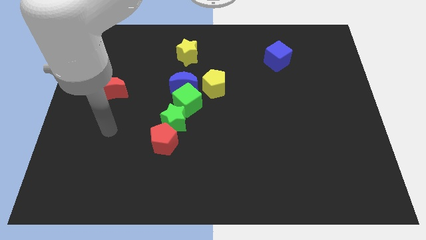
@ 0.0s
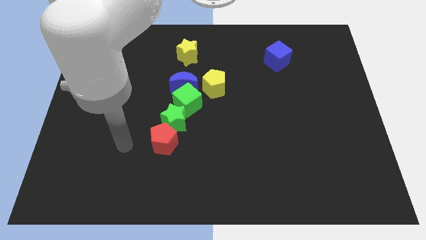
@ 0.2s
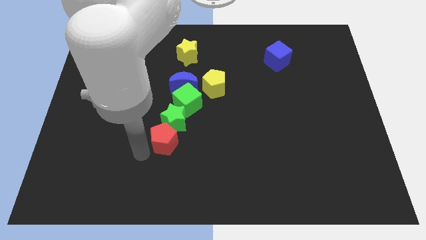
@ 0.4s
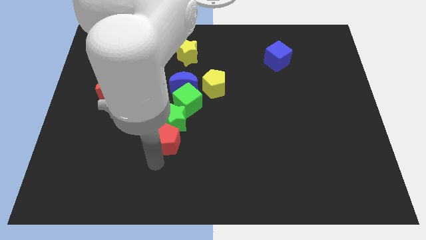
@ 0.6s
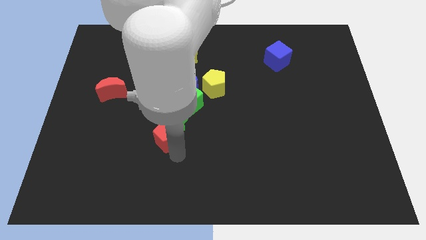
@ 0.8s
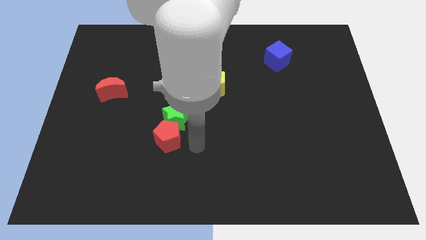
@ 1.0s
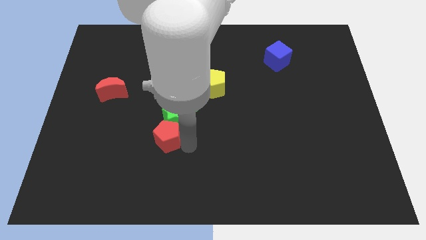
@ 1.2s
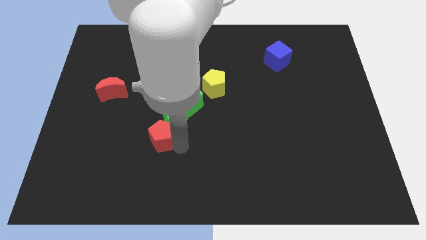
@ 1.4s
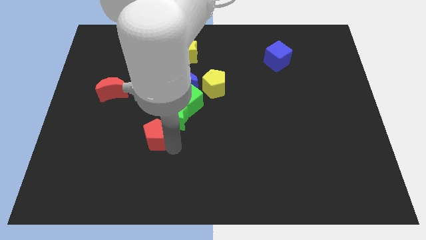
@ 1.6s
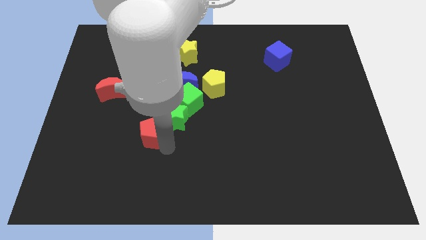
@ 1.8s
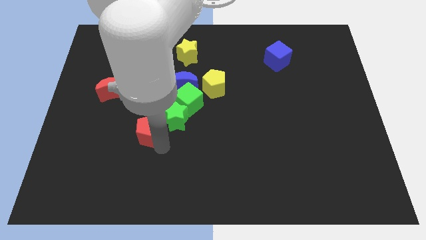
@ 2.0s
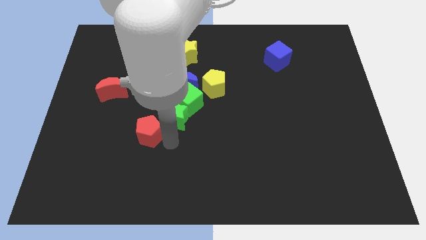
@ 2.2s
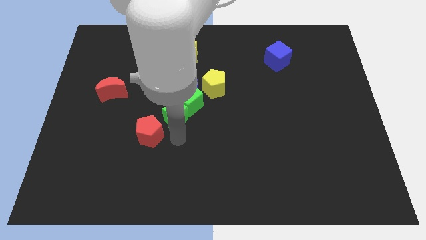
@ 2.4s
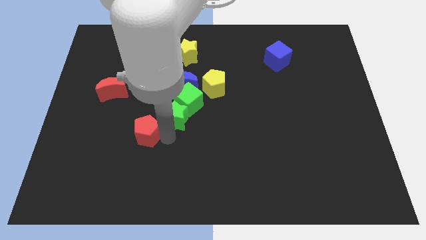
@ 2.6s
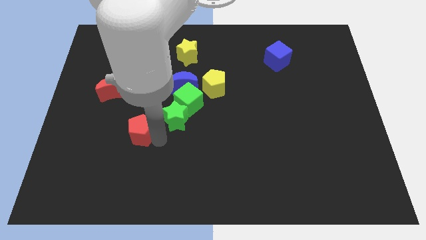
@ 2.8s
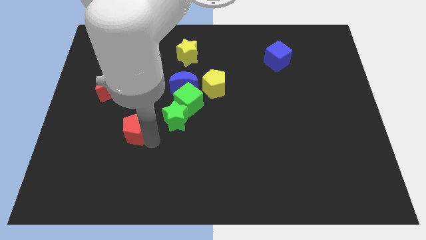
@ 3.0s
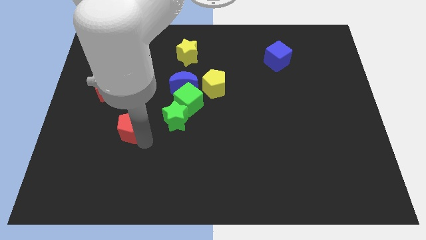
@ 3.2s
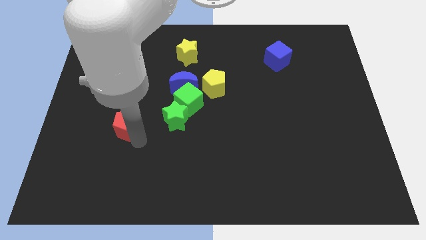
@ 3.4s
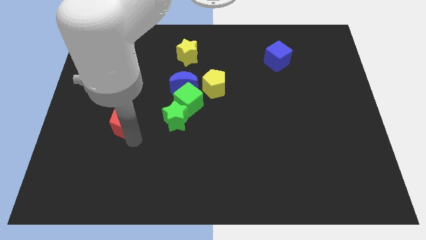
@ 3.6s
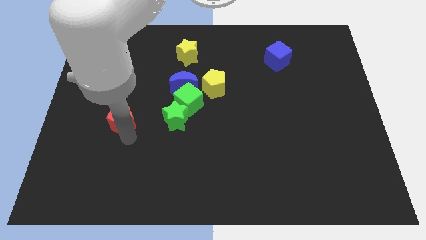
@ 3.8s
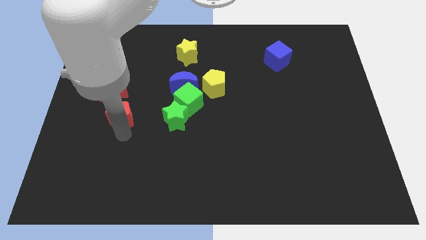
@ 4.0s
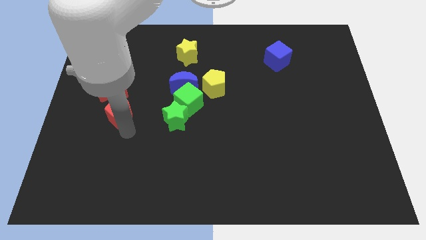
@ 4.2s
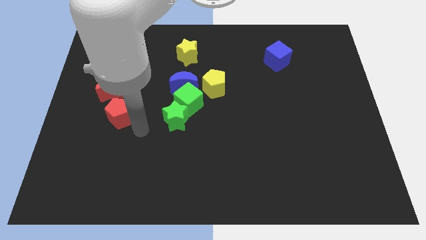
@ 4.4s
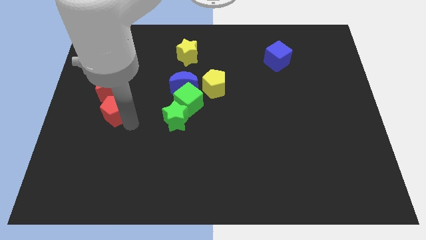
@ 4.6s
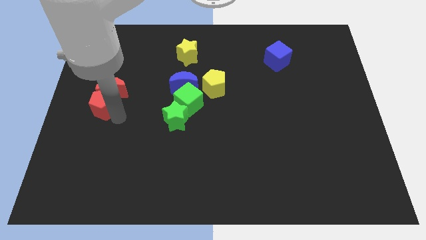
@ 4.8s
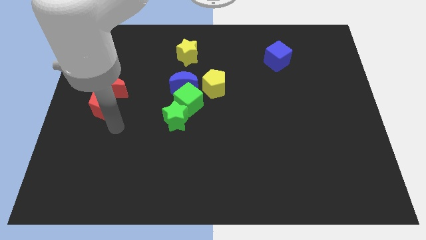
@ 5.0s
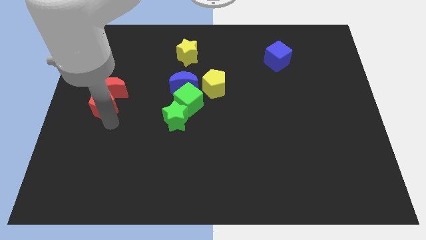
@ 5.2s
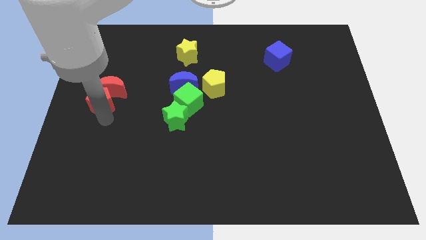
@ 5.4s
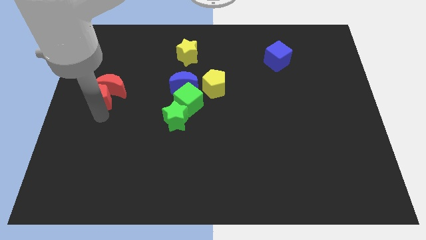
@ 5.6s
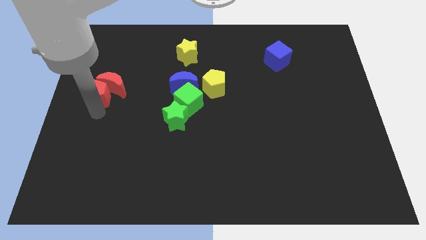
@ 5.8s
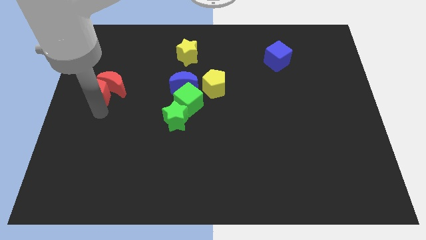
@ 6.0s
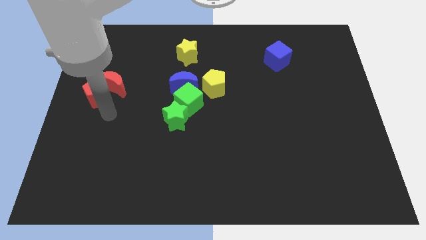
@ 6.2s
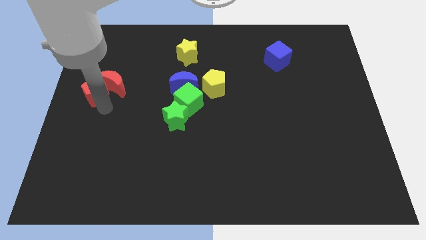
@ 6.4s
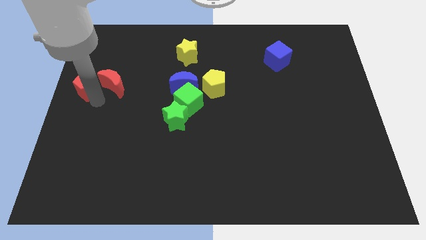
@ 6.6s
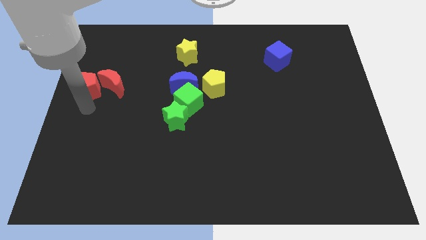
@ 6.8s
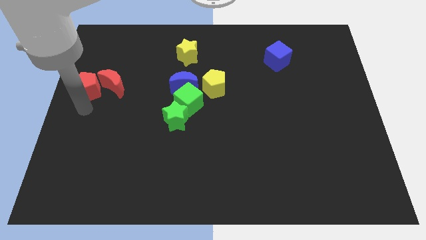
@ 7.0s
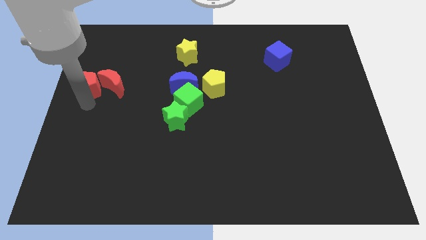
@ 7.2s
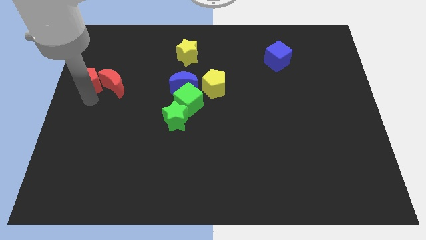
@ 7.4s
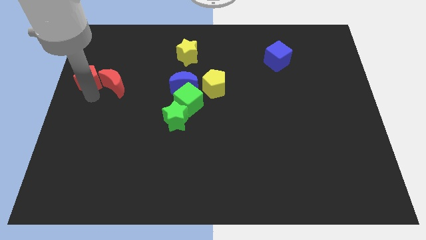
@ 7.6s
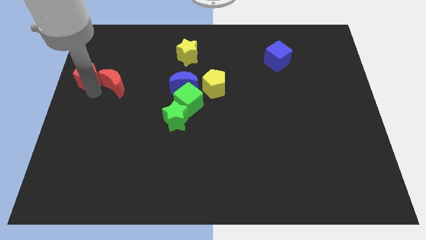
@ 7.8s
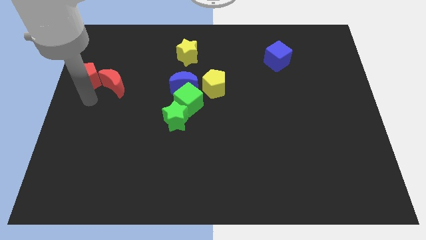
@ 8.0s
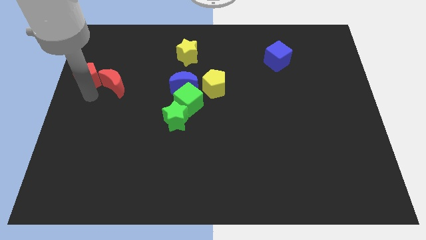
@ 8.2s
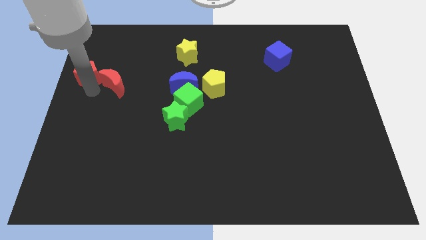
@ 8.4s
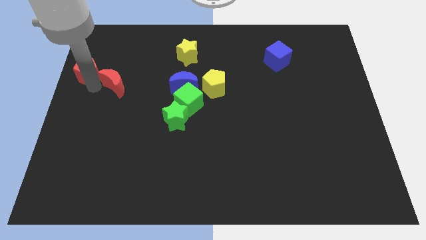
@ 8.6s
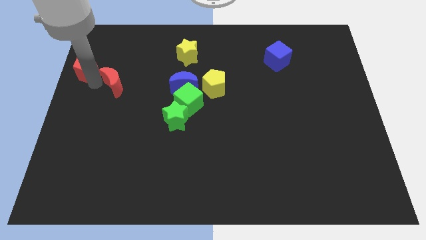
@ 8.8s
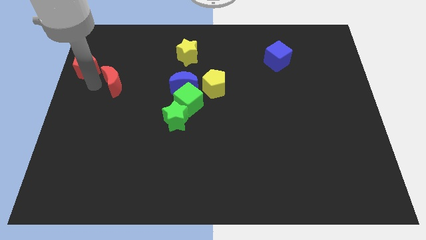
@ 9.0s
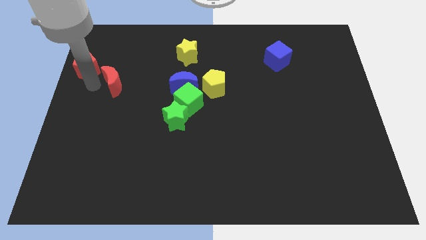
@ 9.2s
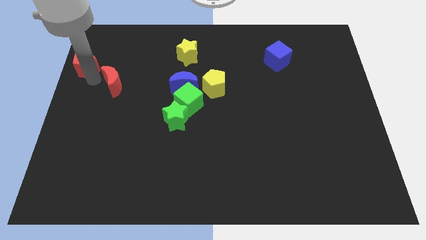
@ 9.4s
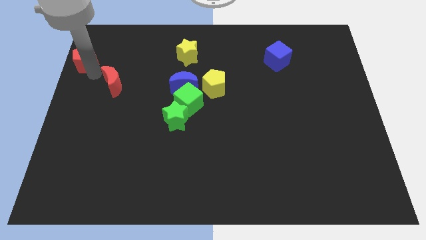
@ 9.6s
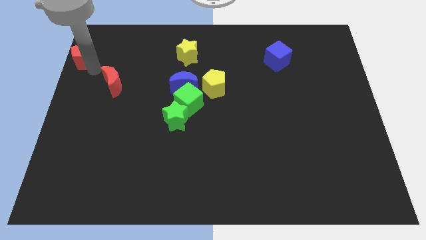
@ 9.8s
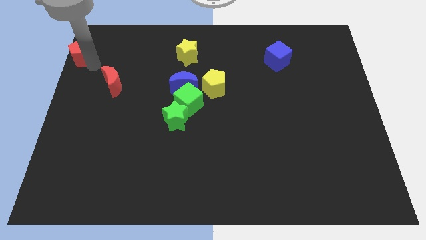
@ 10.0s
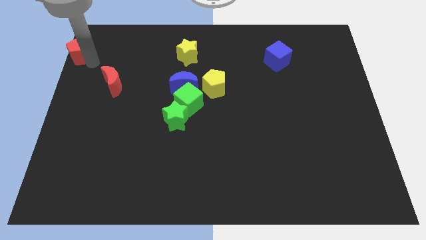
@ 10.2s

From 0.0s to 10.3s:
move the red pentagon to the top left corner

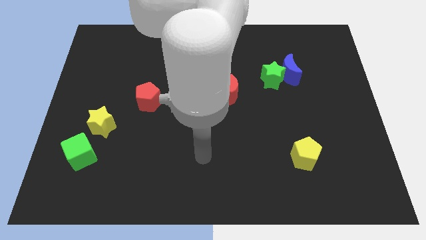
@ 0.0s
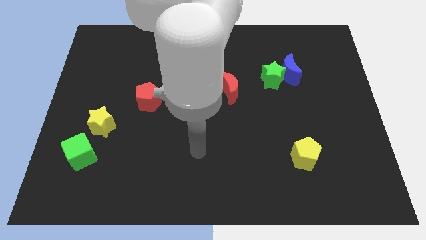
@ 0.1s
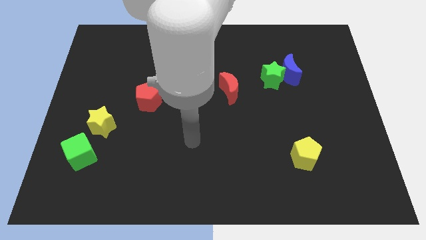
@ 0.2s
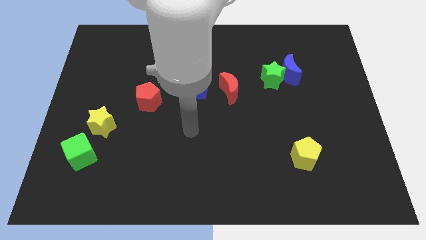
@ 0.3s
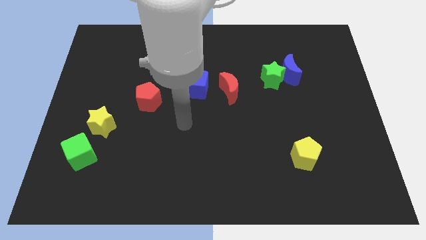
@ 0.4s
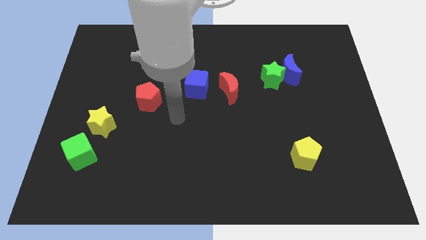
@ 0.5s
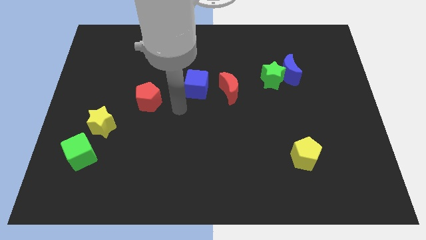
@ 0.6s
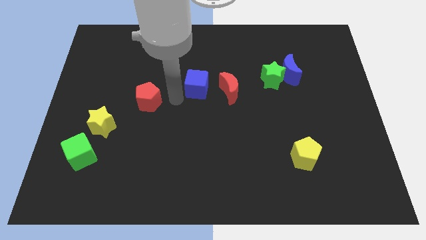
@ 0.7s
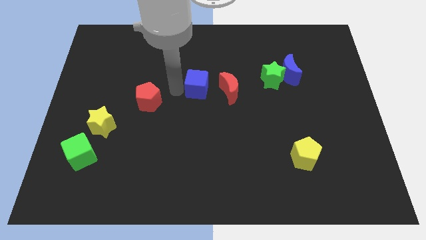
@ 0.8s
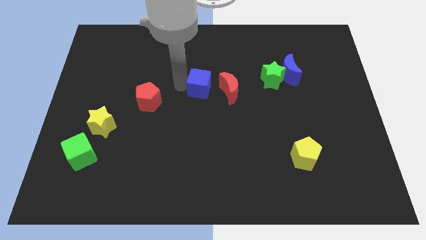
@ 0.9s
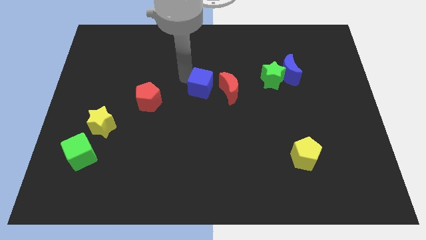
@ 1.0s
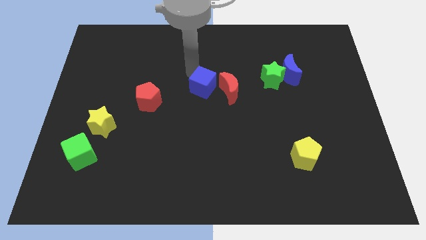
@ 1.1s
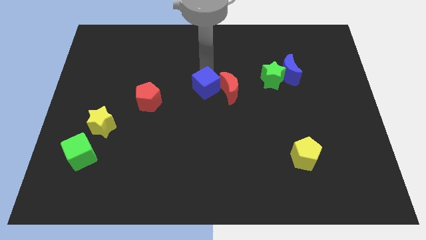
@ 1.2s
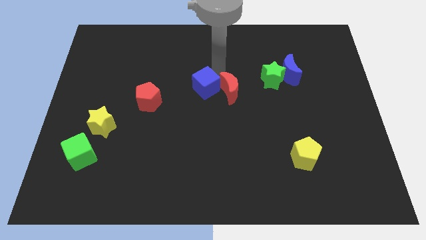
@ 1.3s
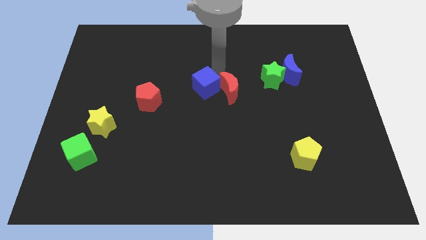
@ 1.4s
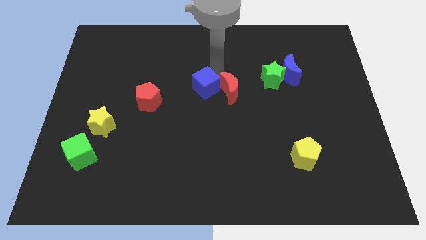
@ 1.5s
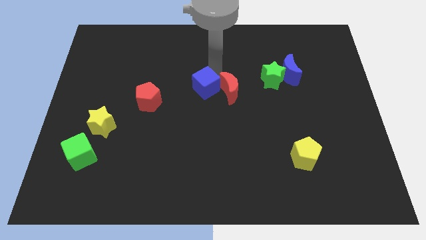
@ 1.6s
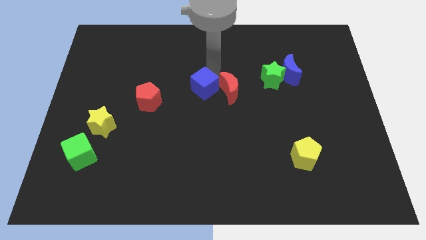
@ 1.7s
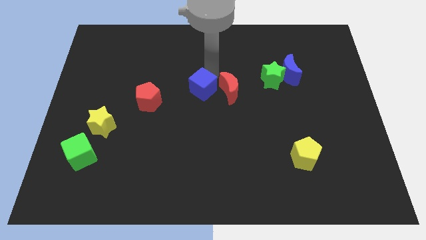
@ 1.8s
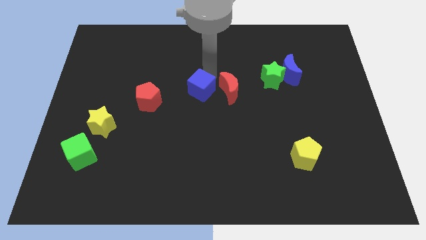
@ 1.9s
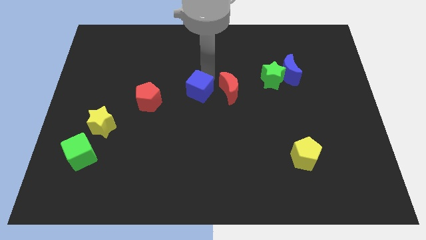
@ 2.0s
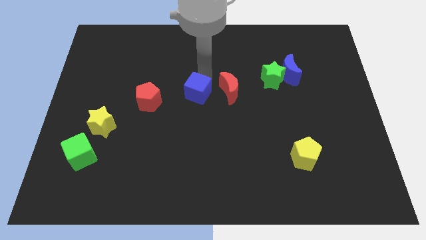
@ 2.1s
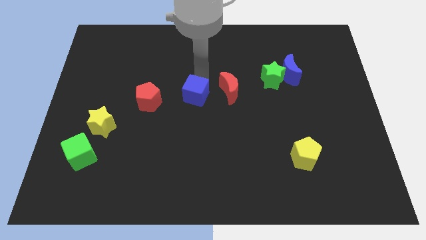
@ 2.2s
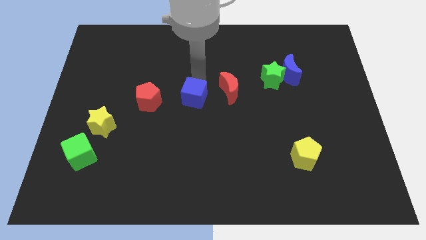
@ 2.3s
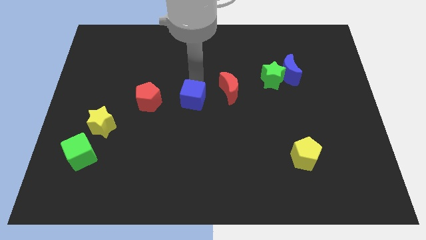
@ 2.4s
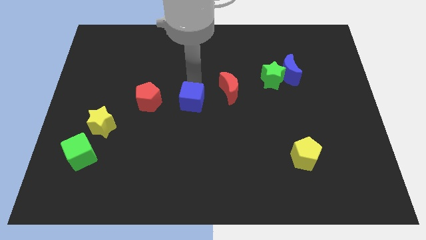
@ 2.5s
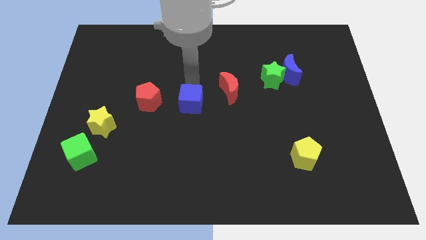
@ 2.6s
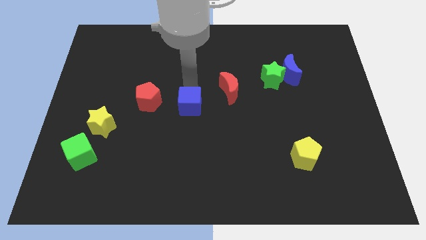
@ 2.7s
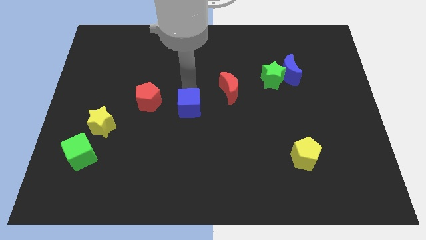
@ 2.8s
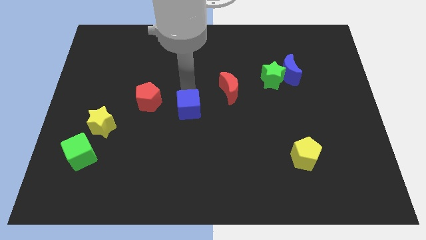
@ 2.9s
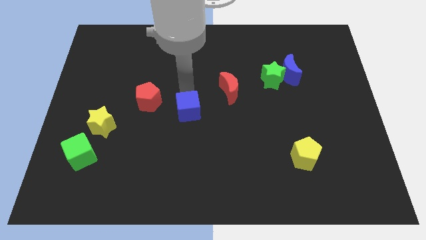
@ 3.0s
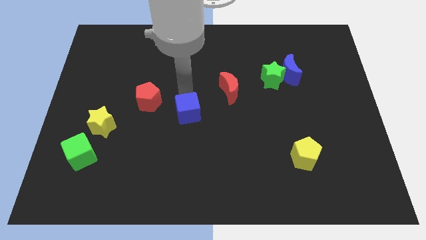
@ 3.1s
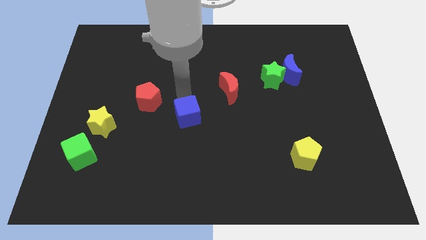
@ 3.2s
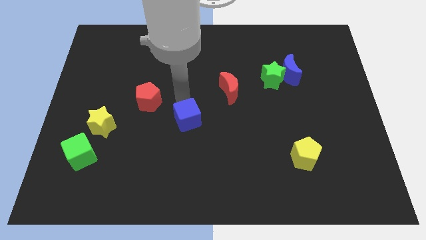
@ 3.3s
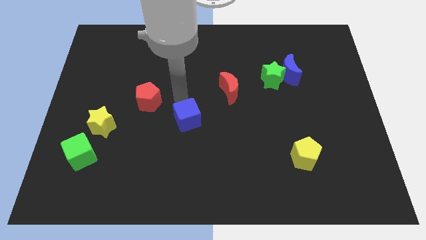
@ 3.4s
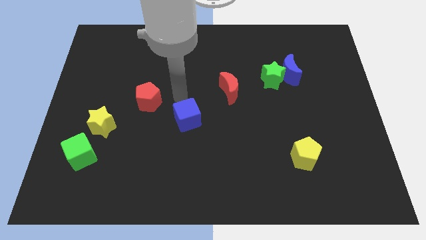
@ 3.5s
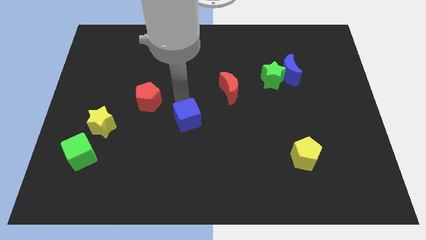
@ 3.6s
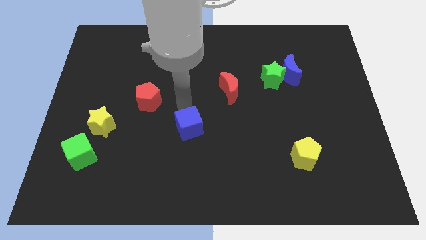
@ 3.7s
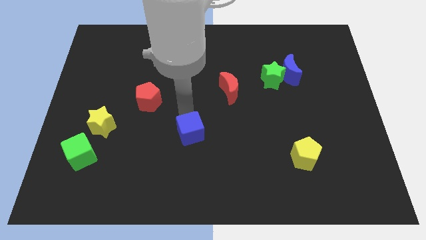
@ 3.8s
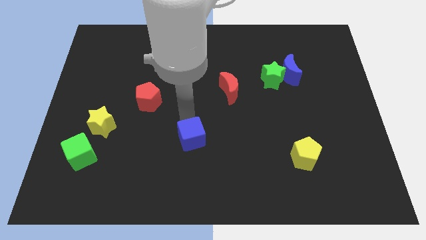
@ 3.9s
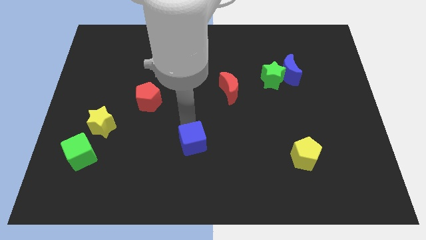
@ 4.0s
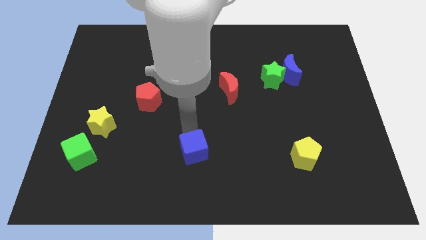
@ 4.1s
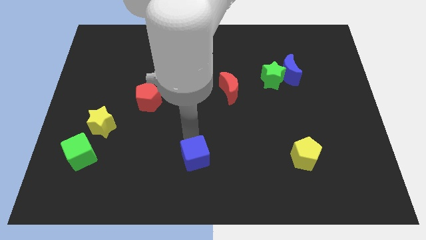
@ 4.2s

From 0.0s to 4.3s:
put the blue cube to the bottom side
